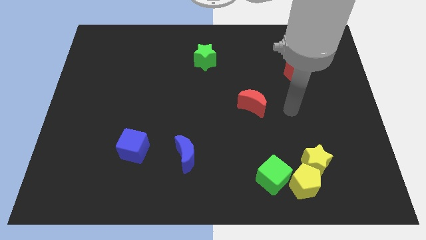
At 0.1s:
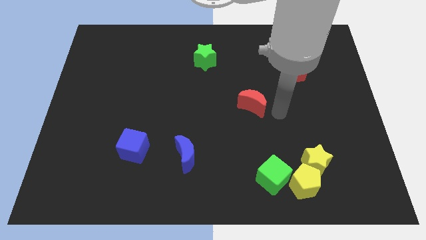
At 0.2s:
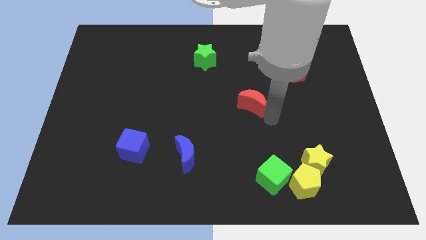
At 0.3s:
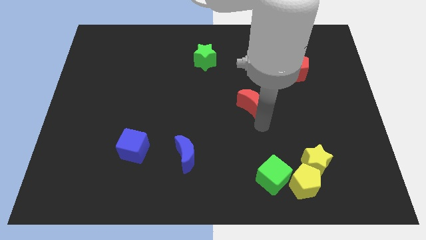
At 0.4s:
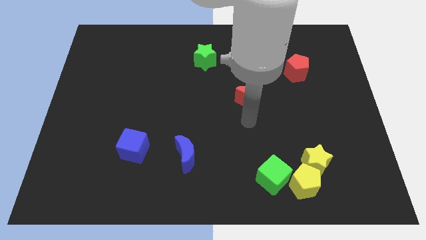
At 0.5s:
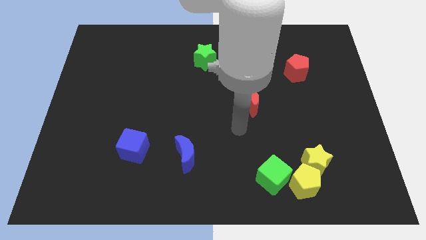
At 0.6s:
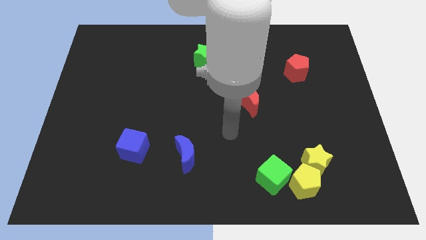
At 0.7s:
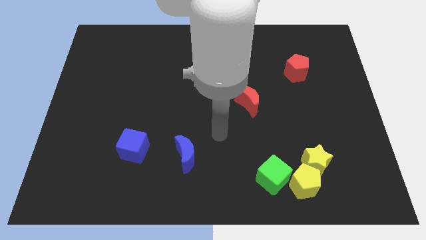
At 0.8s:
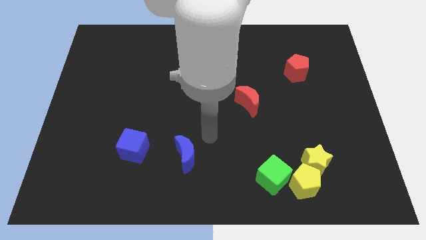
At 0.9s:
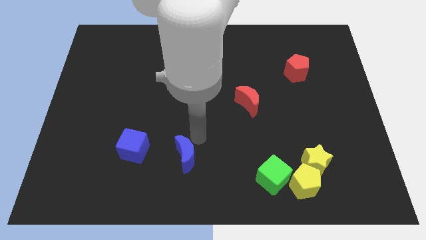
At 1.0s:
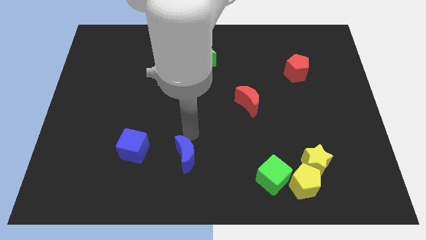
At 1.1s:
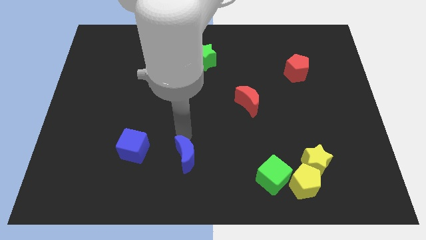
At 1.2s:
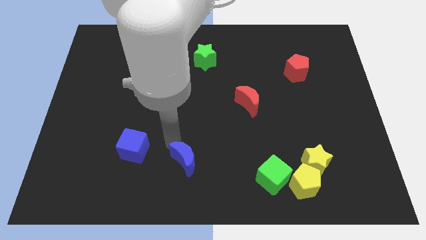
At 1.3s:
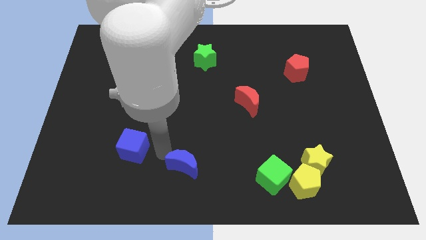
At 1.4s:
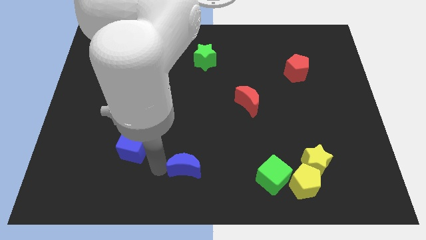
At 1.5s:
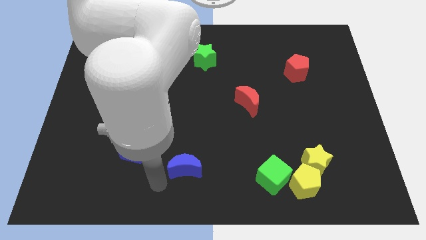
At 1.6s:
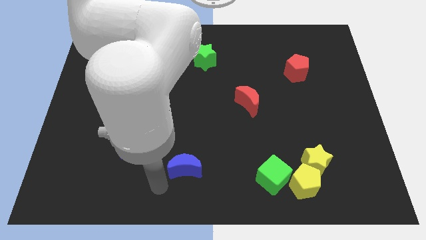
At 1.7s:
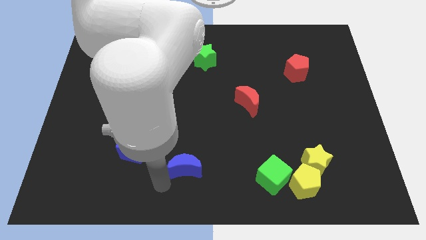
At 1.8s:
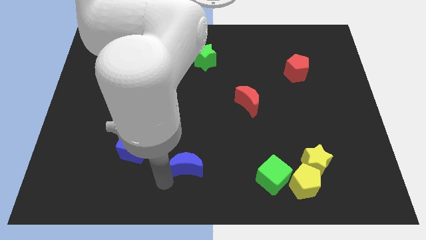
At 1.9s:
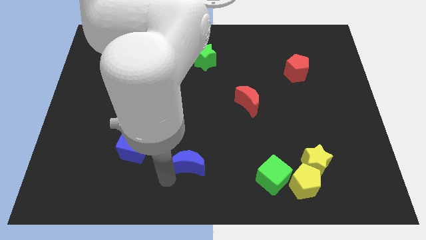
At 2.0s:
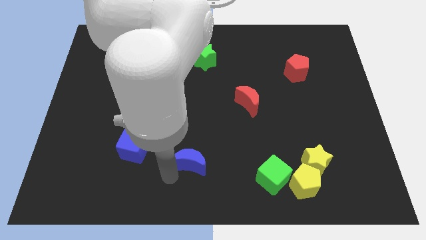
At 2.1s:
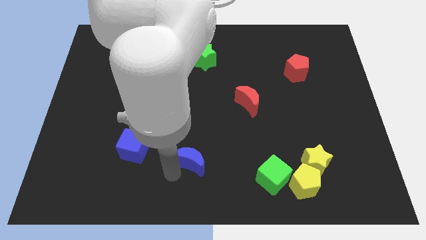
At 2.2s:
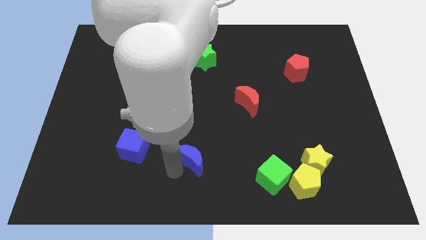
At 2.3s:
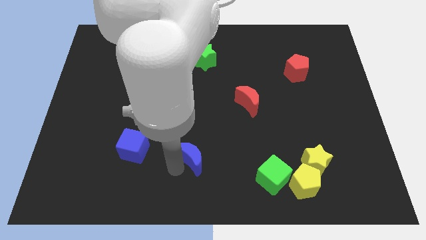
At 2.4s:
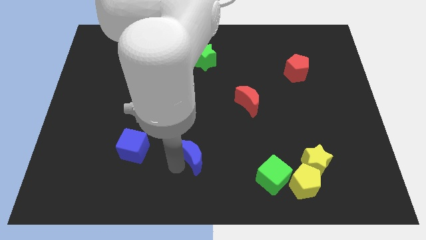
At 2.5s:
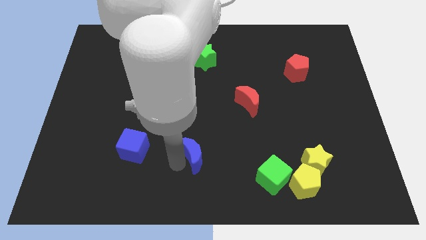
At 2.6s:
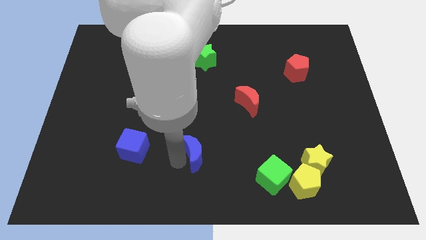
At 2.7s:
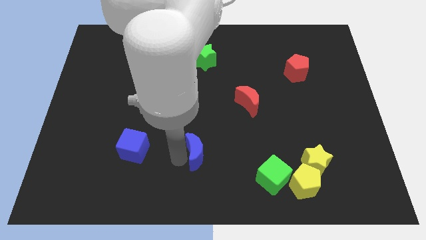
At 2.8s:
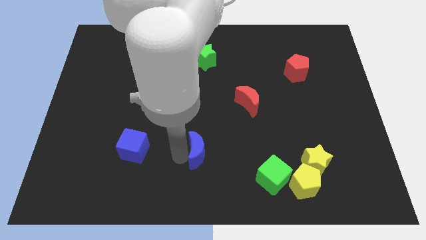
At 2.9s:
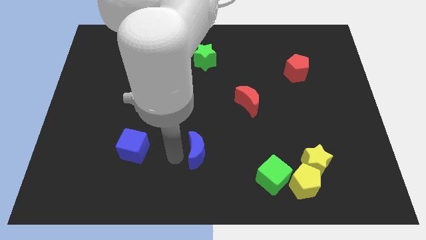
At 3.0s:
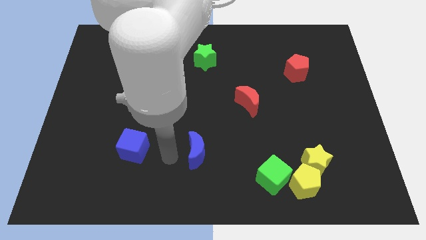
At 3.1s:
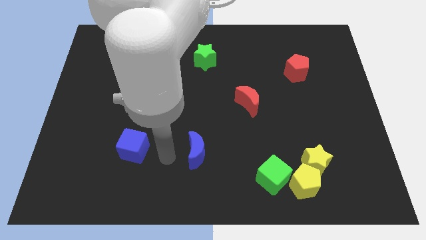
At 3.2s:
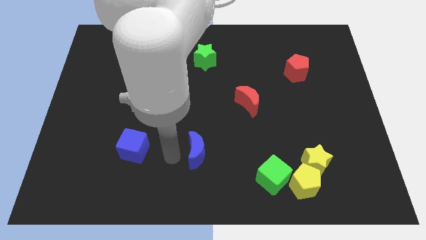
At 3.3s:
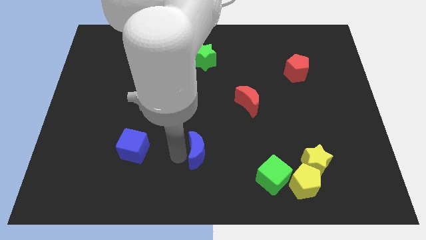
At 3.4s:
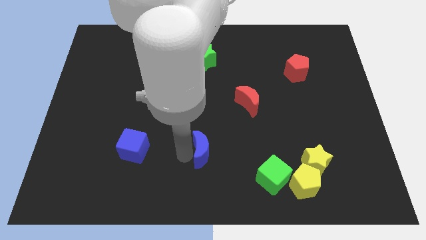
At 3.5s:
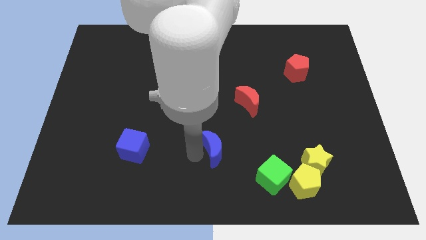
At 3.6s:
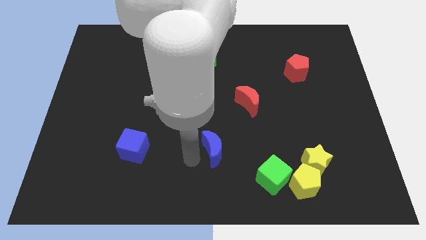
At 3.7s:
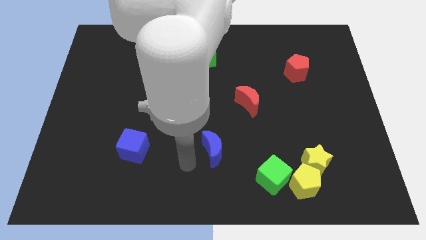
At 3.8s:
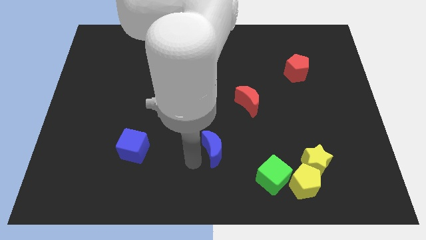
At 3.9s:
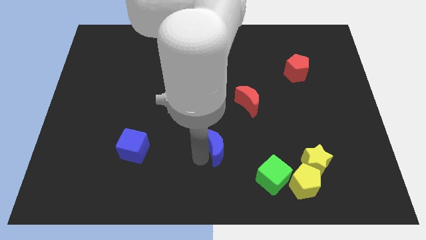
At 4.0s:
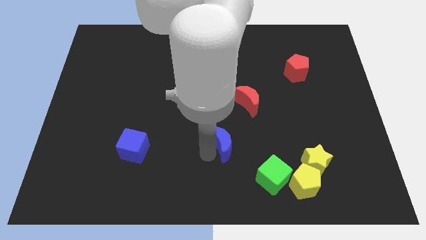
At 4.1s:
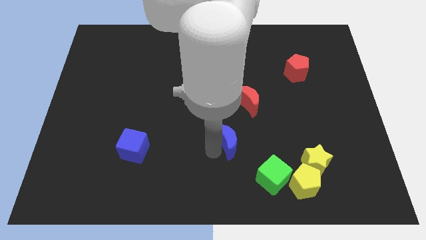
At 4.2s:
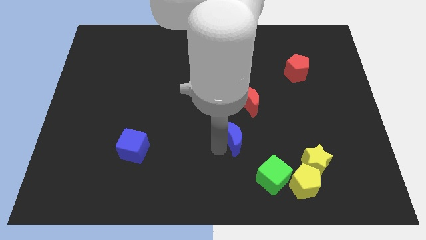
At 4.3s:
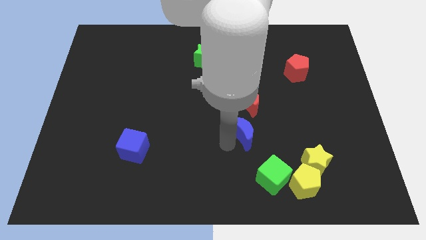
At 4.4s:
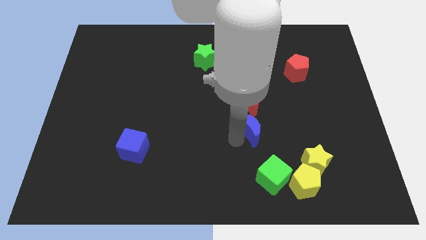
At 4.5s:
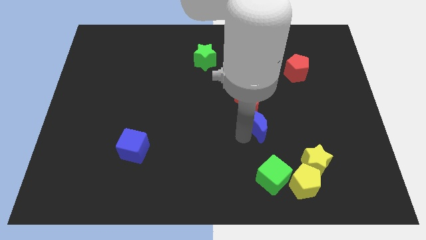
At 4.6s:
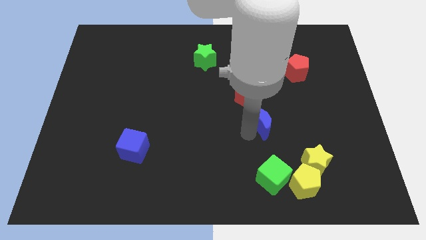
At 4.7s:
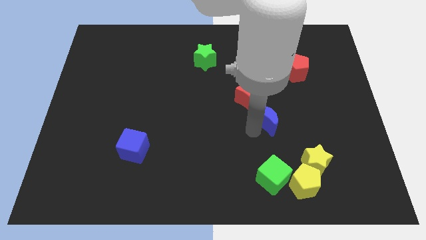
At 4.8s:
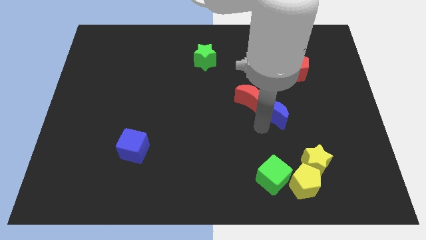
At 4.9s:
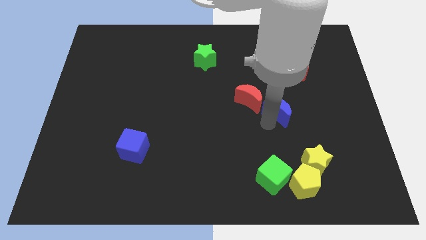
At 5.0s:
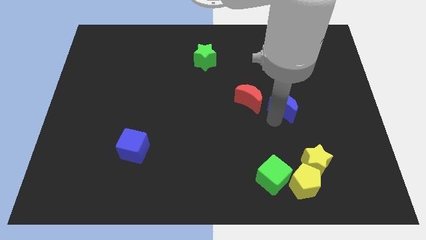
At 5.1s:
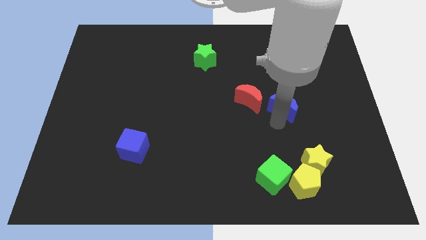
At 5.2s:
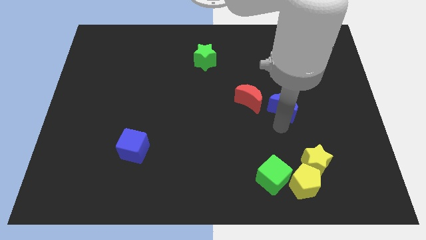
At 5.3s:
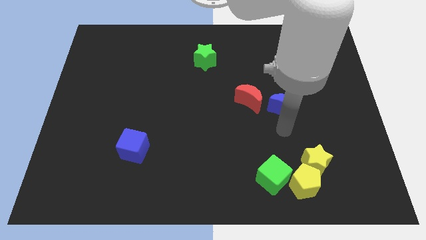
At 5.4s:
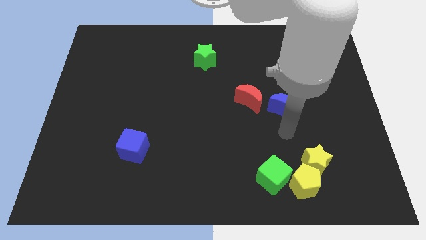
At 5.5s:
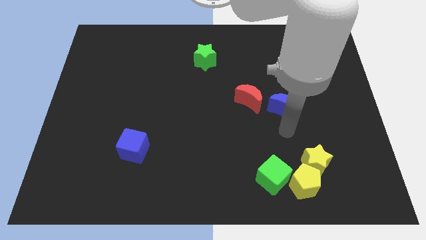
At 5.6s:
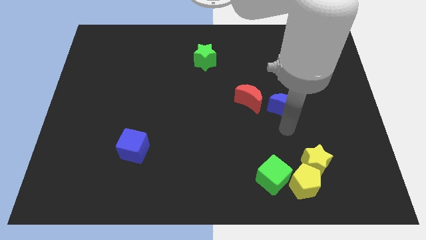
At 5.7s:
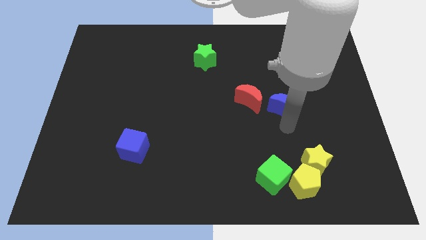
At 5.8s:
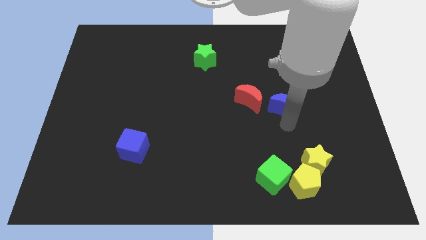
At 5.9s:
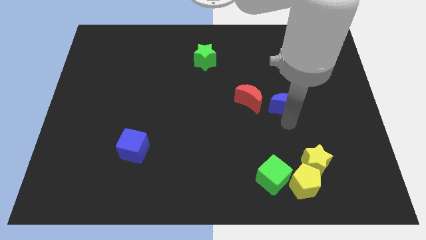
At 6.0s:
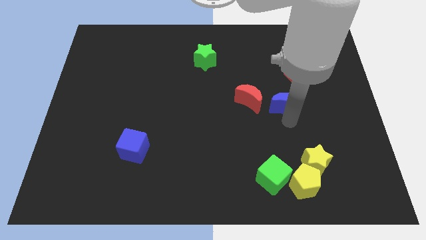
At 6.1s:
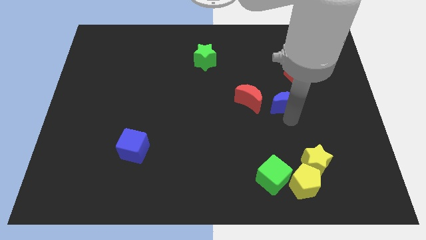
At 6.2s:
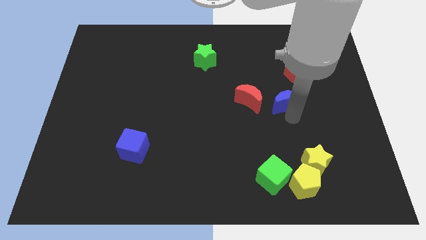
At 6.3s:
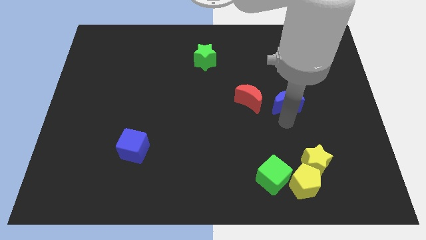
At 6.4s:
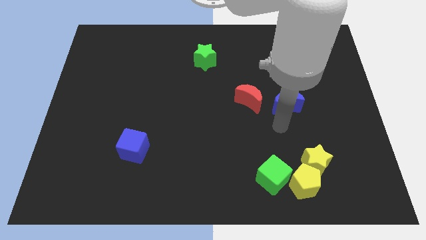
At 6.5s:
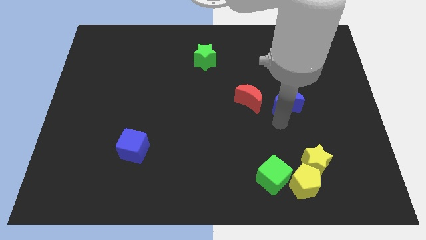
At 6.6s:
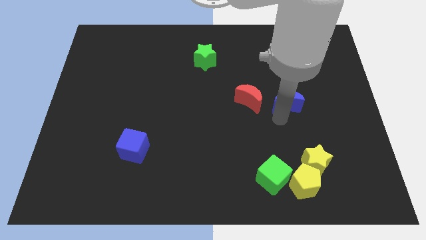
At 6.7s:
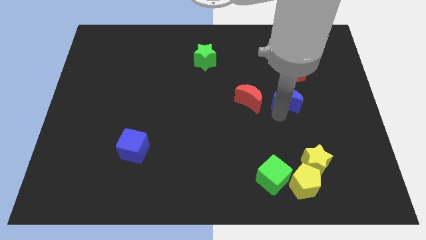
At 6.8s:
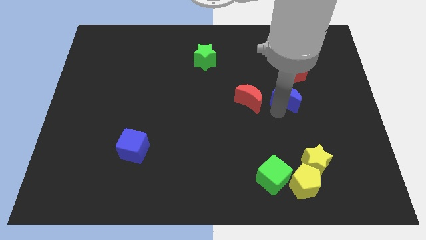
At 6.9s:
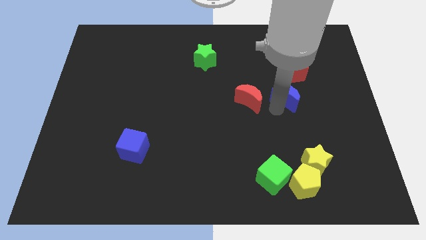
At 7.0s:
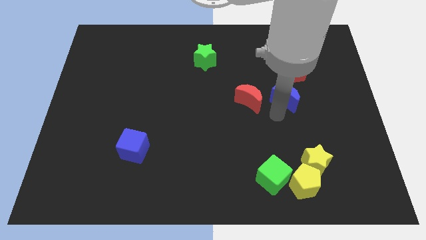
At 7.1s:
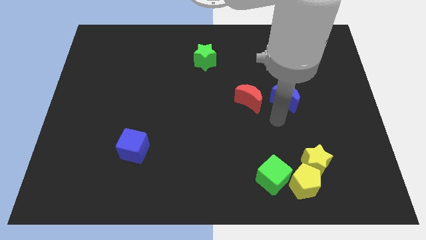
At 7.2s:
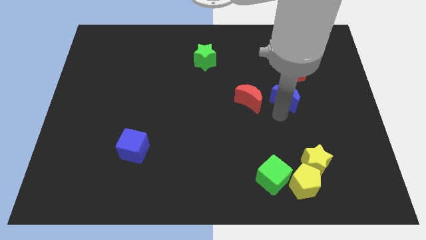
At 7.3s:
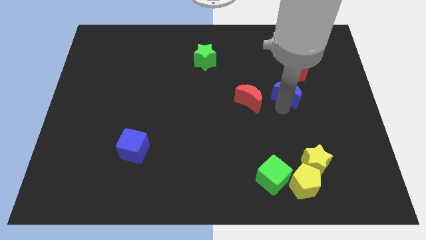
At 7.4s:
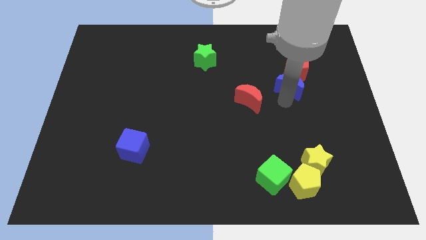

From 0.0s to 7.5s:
slide the blue moon to the red pentagon
